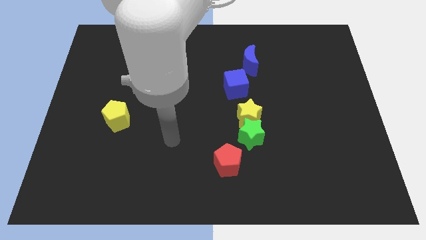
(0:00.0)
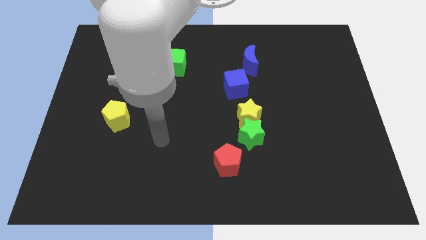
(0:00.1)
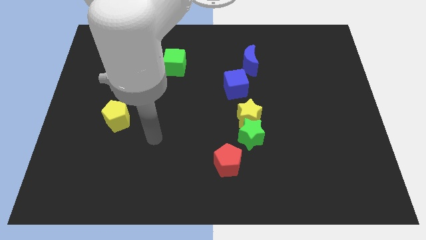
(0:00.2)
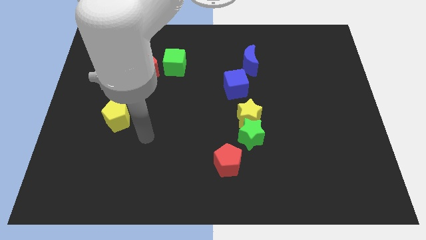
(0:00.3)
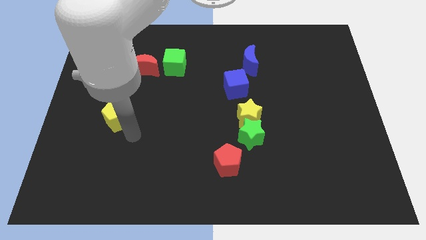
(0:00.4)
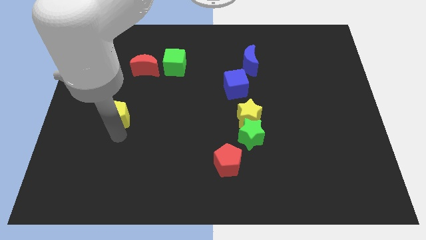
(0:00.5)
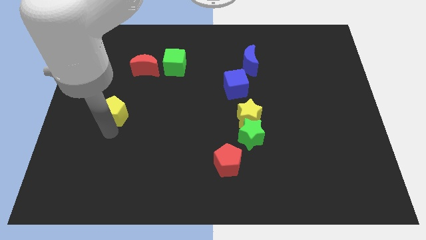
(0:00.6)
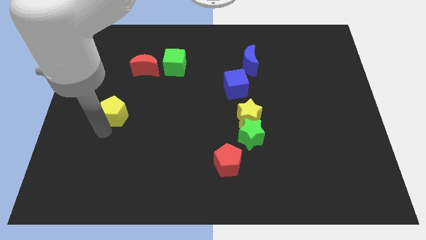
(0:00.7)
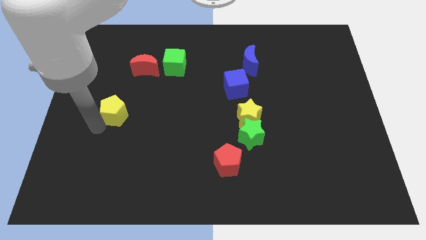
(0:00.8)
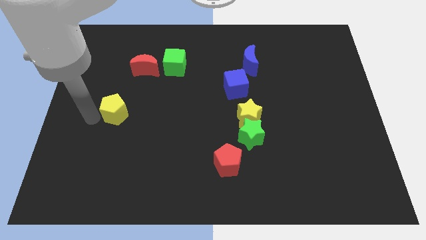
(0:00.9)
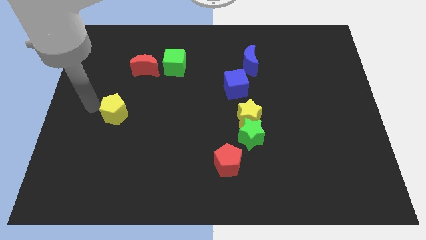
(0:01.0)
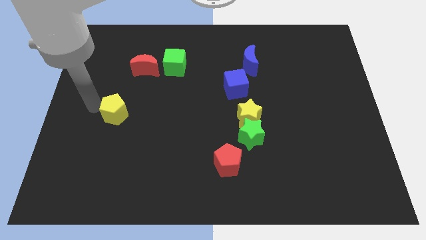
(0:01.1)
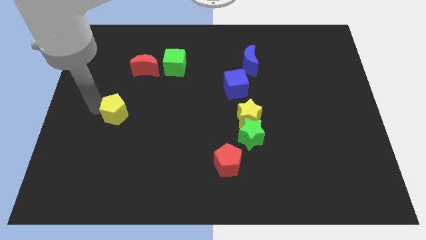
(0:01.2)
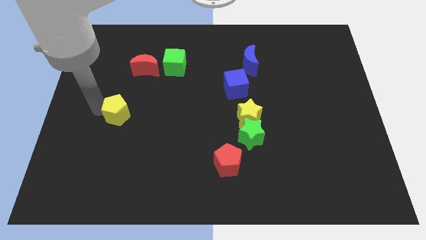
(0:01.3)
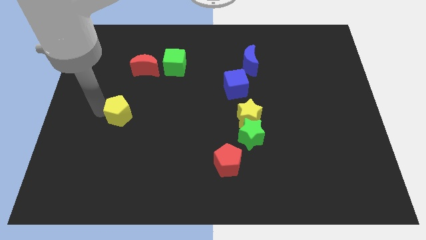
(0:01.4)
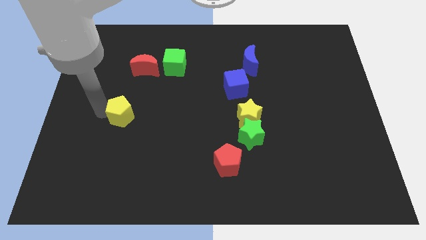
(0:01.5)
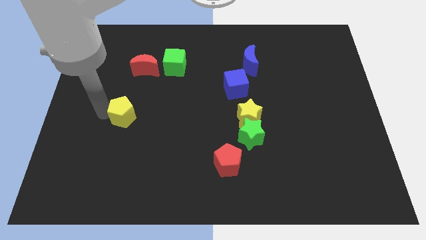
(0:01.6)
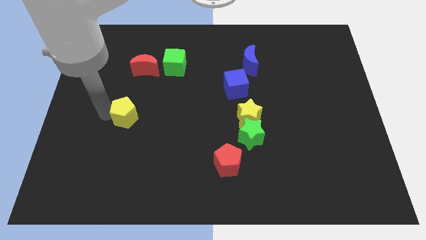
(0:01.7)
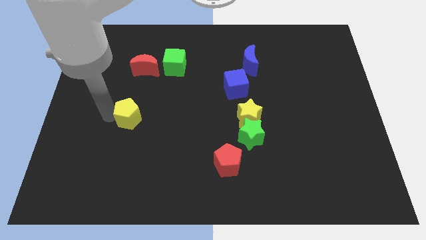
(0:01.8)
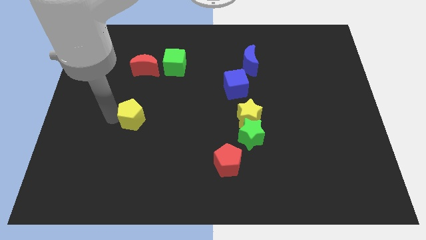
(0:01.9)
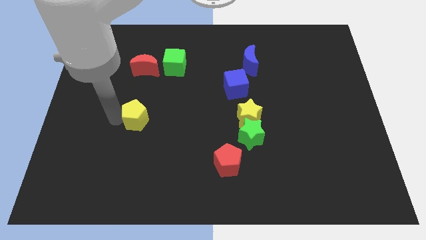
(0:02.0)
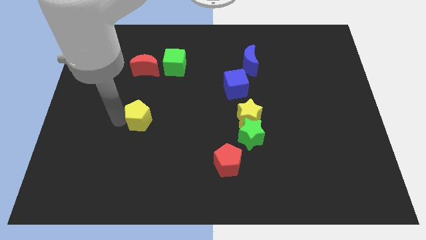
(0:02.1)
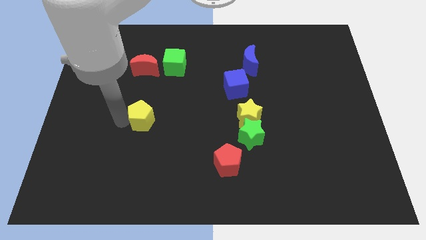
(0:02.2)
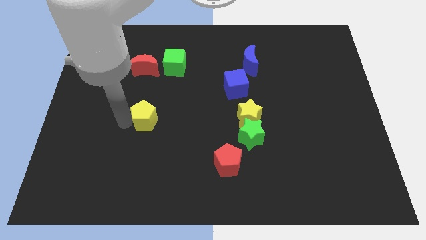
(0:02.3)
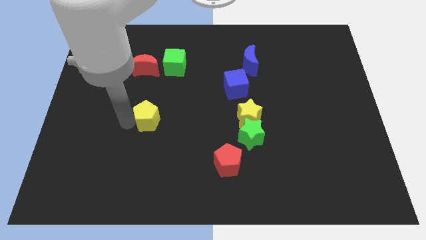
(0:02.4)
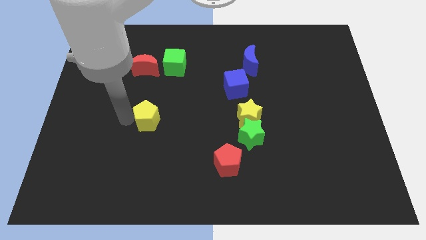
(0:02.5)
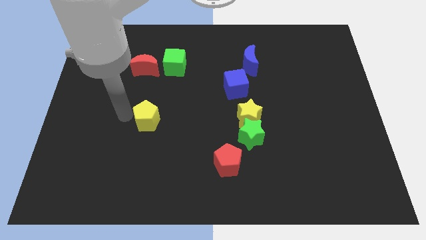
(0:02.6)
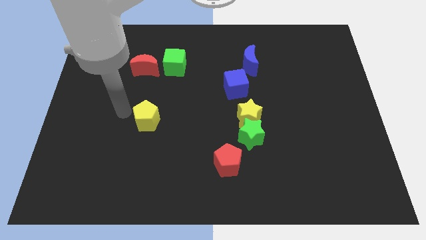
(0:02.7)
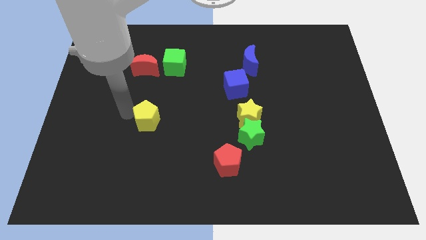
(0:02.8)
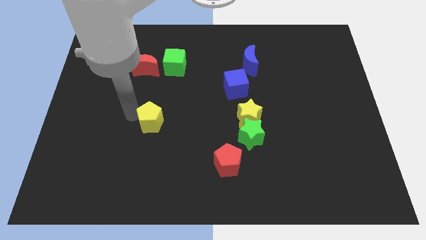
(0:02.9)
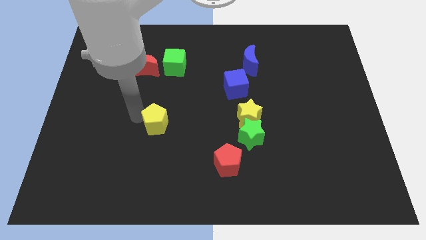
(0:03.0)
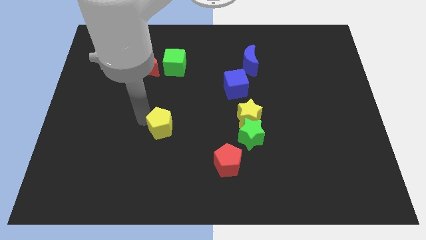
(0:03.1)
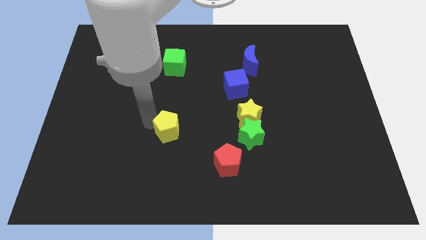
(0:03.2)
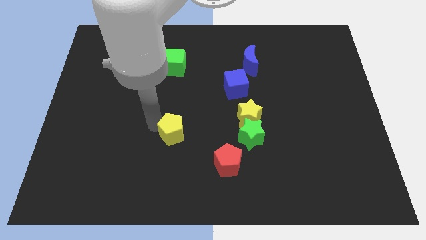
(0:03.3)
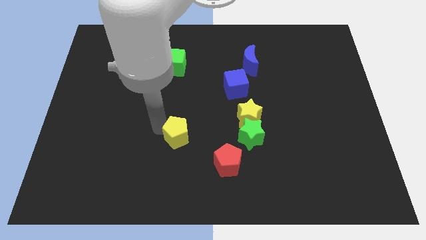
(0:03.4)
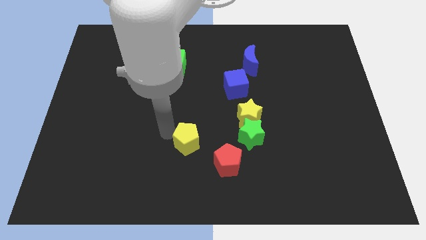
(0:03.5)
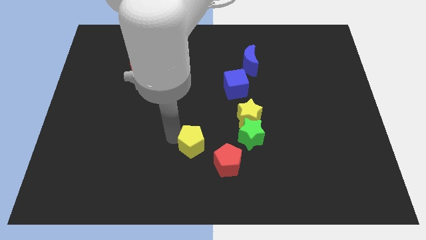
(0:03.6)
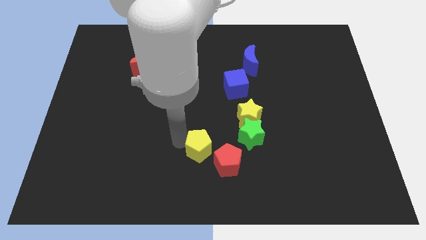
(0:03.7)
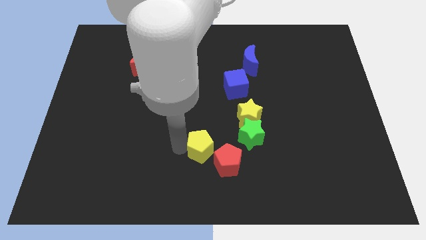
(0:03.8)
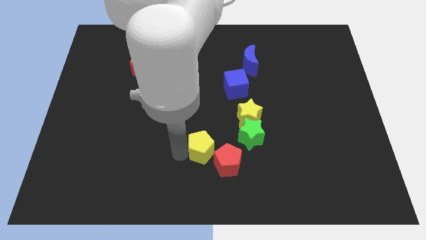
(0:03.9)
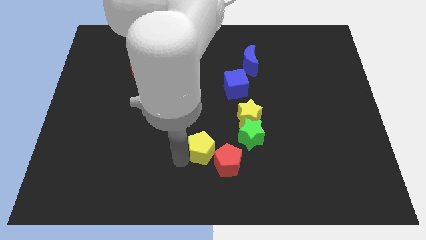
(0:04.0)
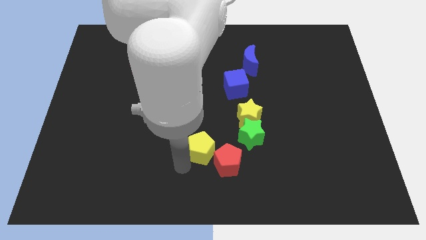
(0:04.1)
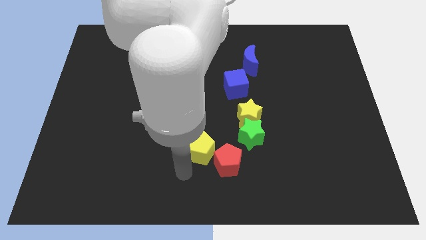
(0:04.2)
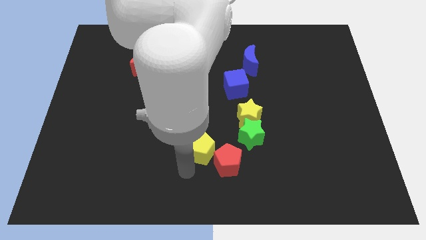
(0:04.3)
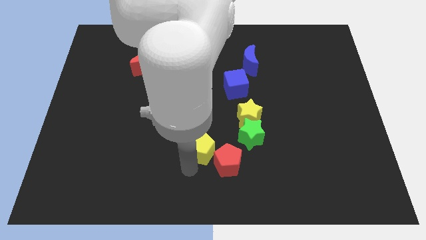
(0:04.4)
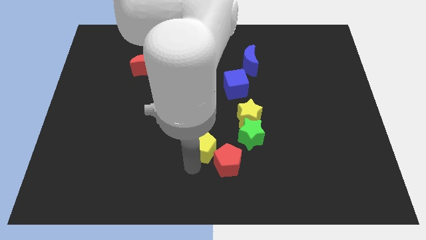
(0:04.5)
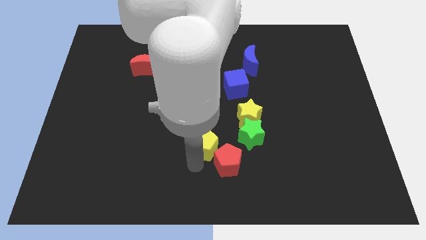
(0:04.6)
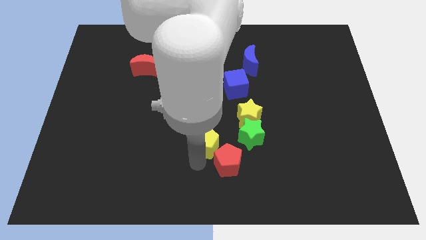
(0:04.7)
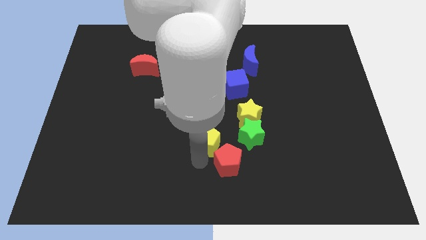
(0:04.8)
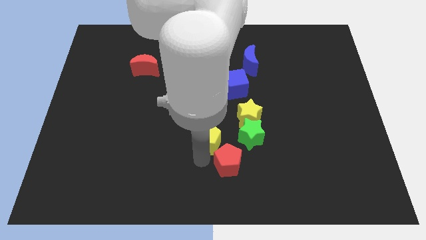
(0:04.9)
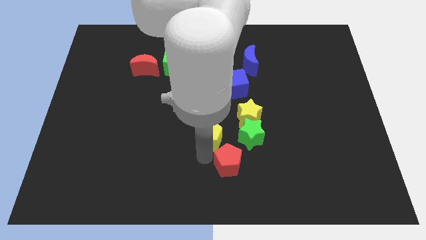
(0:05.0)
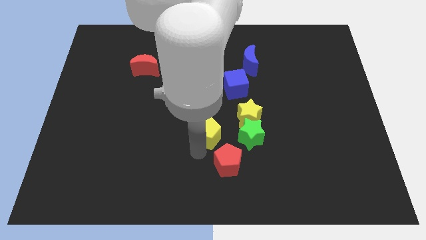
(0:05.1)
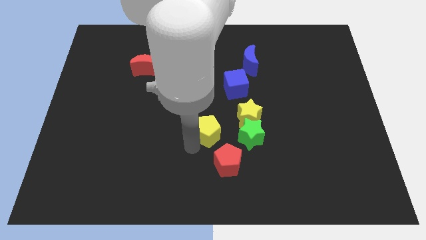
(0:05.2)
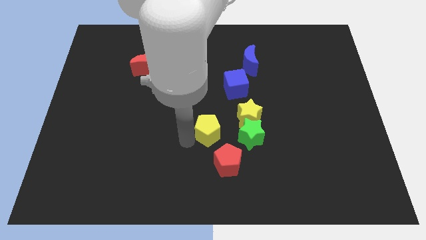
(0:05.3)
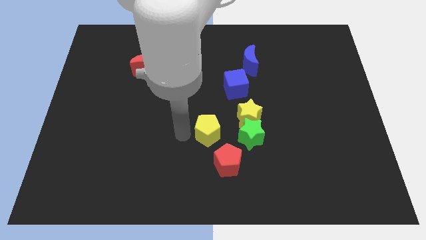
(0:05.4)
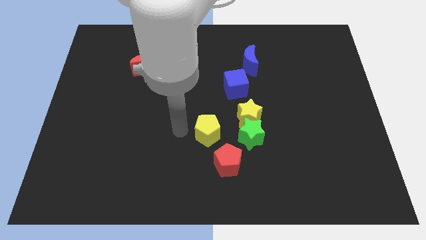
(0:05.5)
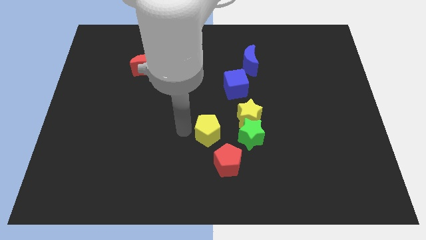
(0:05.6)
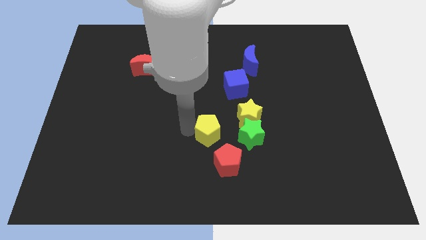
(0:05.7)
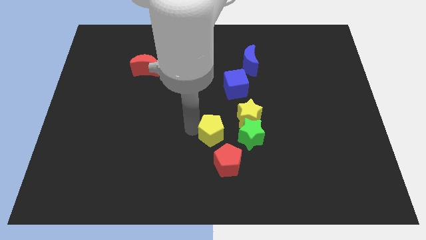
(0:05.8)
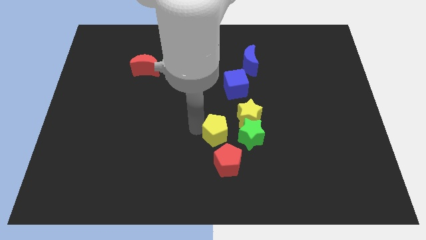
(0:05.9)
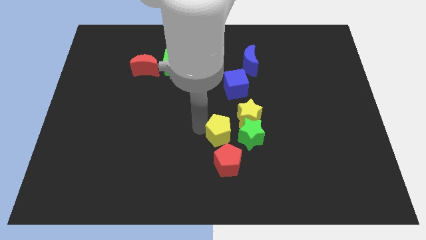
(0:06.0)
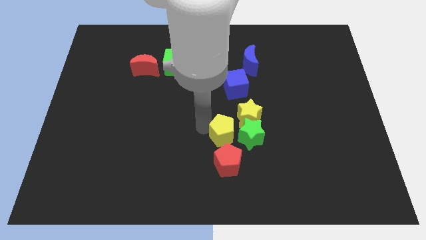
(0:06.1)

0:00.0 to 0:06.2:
put the yellow pentagon to the green star

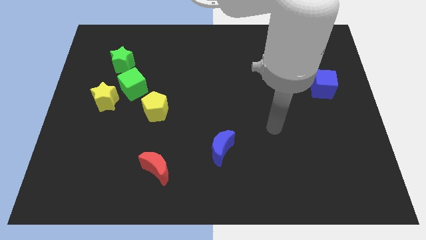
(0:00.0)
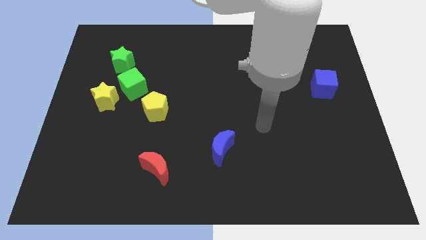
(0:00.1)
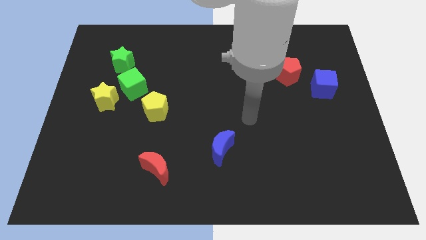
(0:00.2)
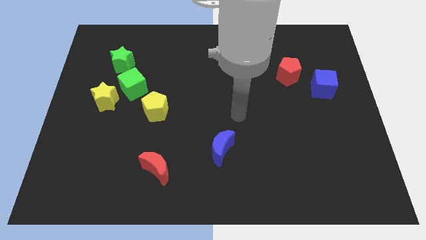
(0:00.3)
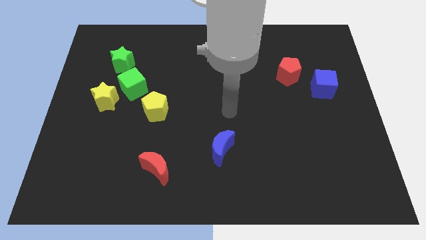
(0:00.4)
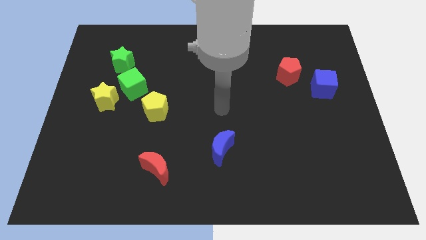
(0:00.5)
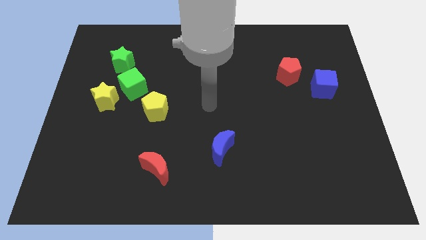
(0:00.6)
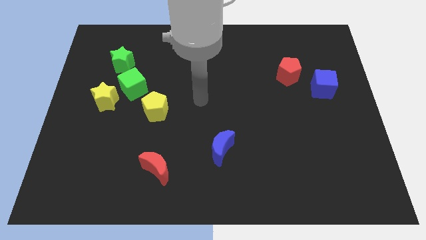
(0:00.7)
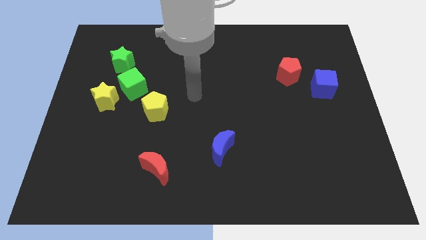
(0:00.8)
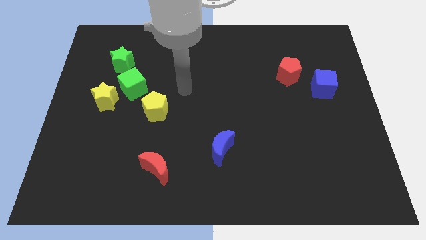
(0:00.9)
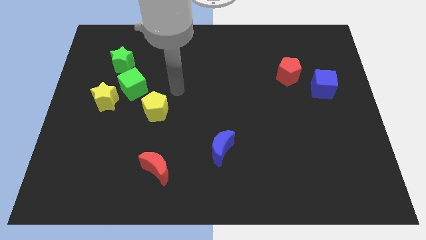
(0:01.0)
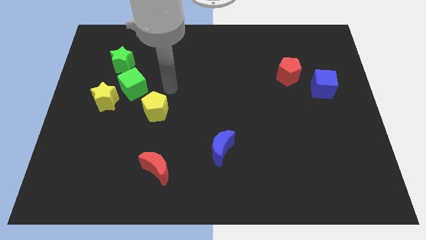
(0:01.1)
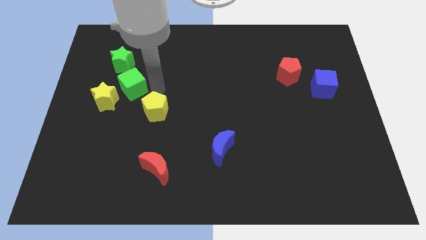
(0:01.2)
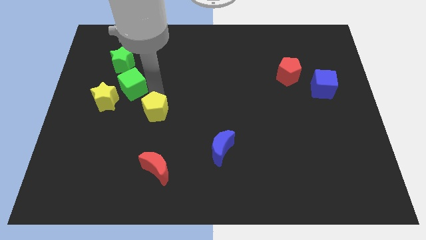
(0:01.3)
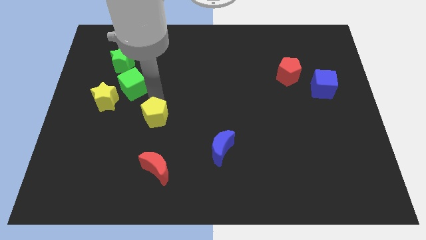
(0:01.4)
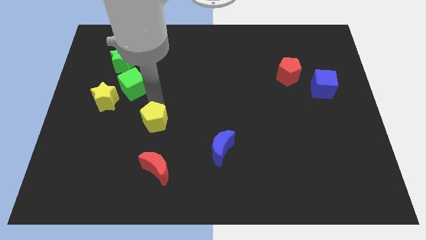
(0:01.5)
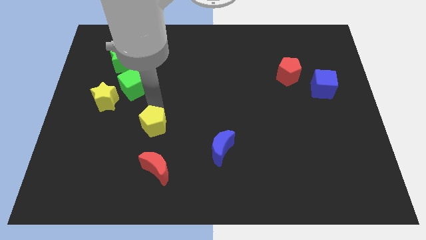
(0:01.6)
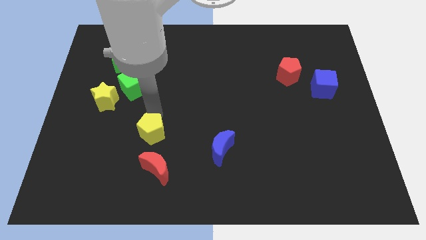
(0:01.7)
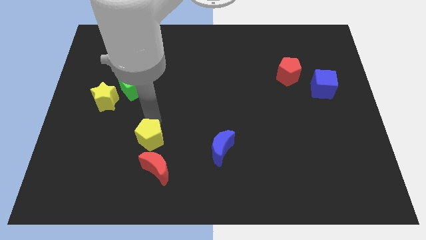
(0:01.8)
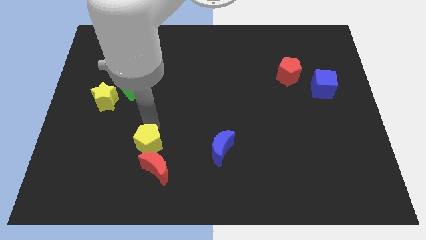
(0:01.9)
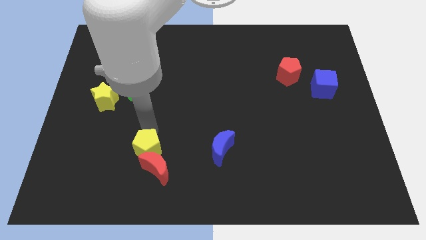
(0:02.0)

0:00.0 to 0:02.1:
slide the yellow pentagon close to the red moon

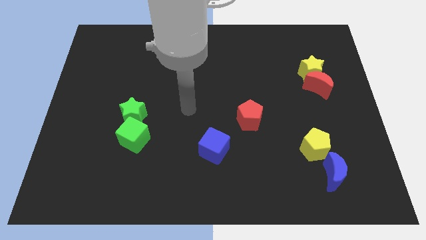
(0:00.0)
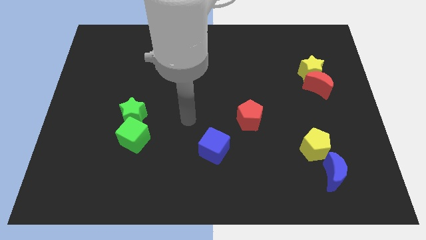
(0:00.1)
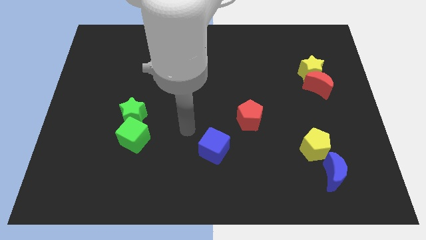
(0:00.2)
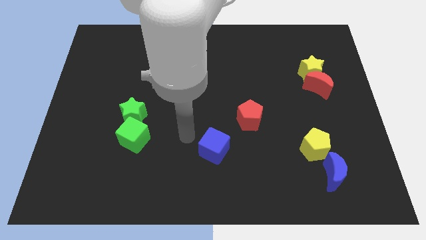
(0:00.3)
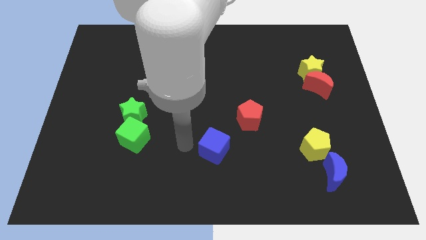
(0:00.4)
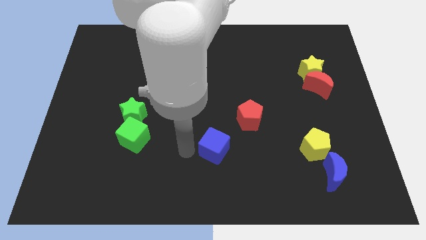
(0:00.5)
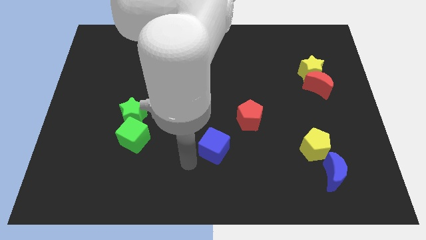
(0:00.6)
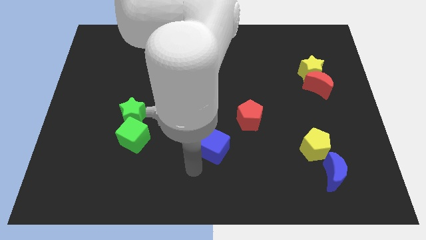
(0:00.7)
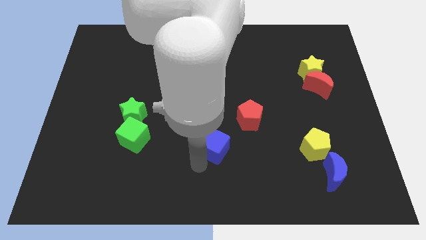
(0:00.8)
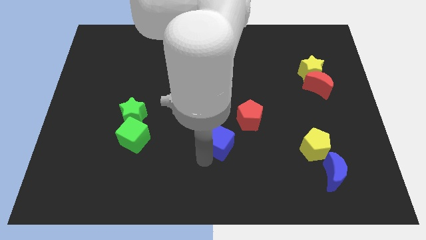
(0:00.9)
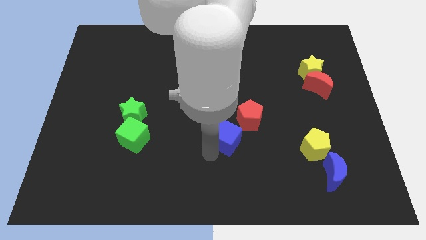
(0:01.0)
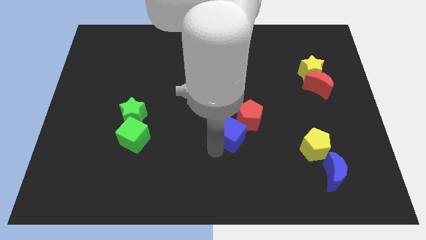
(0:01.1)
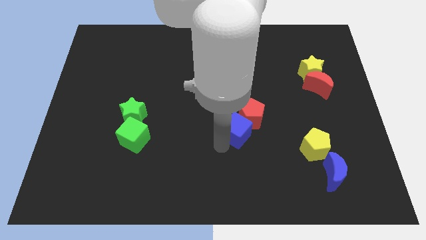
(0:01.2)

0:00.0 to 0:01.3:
push the blue cube close to the red pentagon
